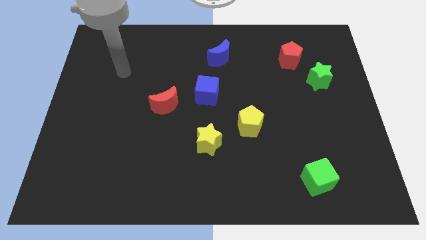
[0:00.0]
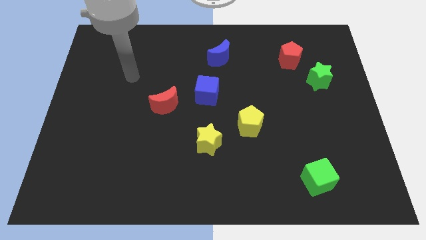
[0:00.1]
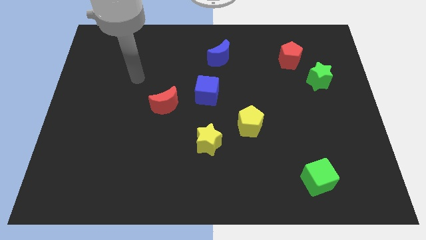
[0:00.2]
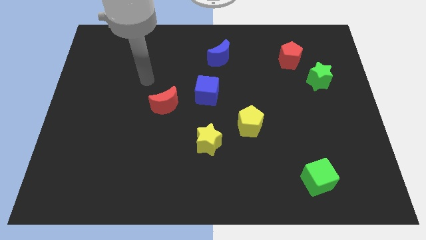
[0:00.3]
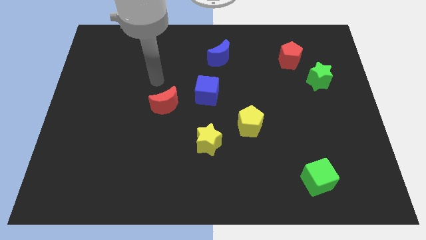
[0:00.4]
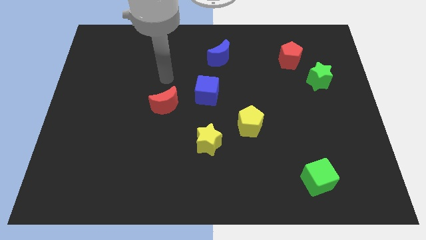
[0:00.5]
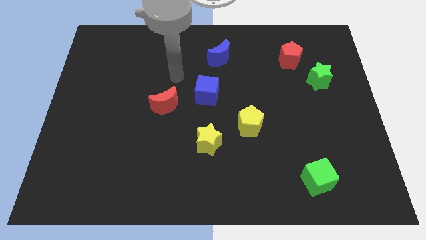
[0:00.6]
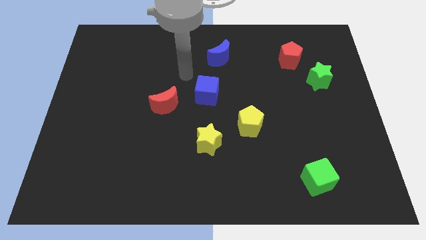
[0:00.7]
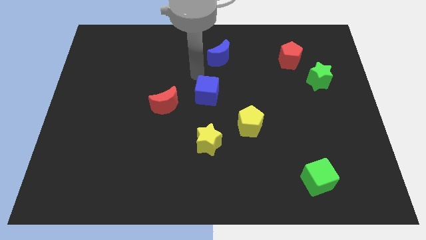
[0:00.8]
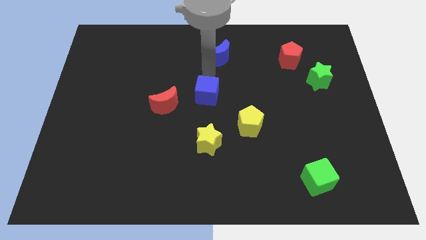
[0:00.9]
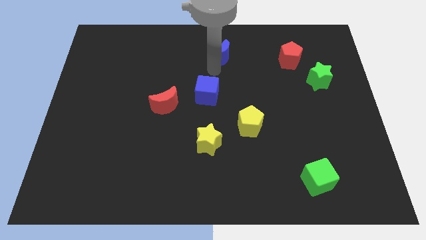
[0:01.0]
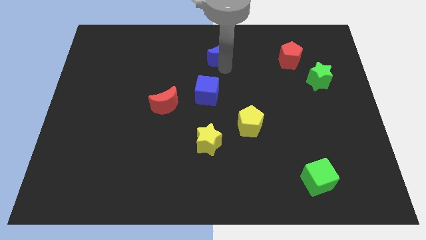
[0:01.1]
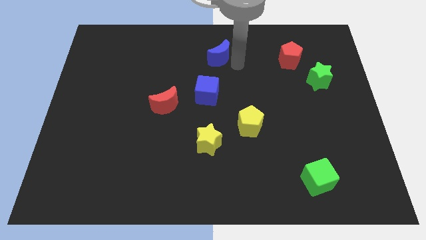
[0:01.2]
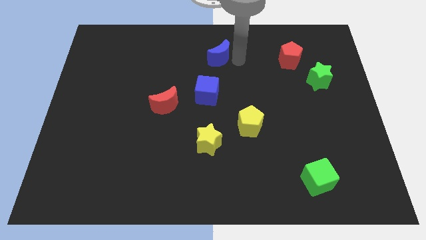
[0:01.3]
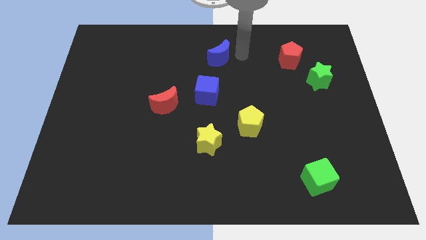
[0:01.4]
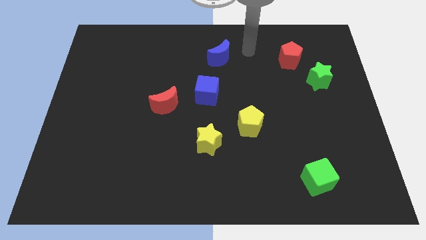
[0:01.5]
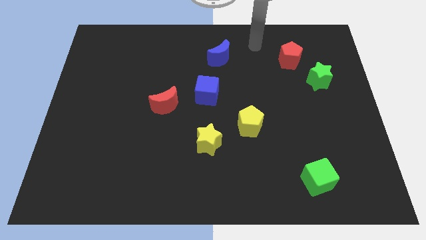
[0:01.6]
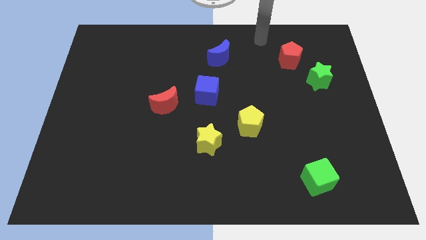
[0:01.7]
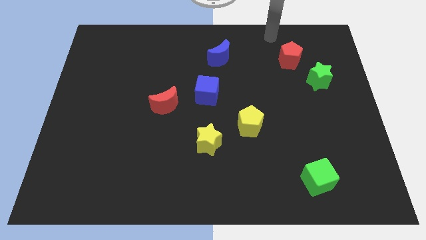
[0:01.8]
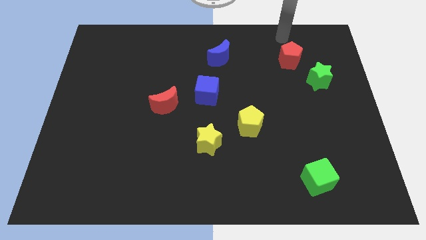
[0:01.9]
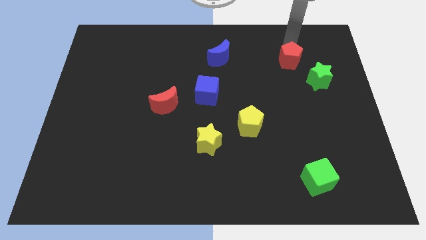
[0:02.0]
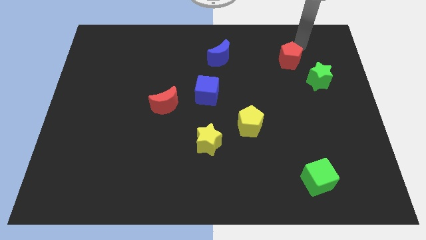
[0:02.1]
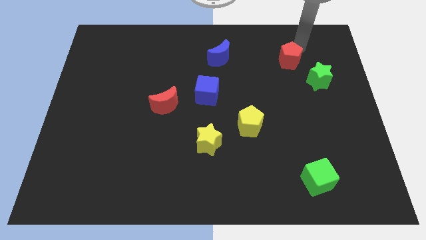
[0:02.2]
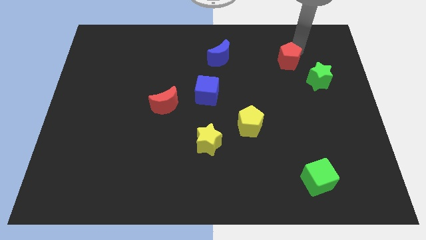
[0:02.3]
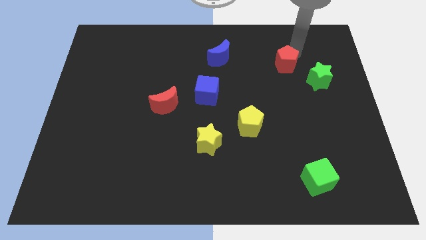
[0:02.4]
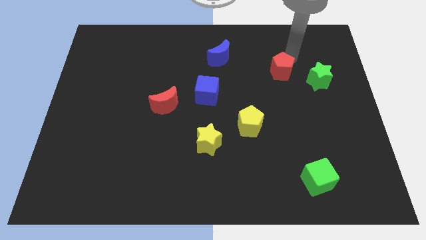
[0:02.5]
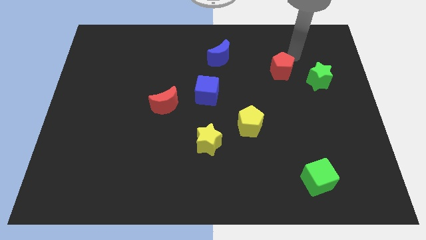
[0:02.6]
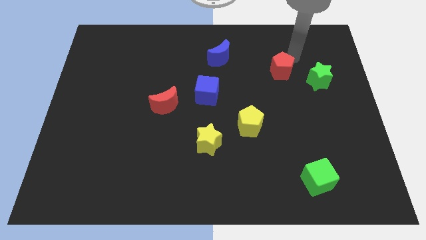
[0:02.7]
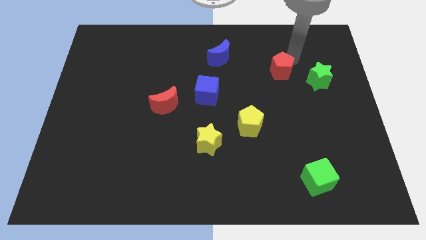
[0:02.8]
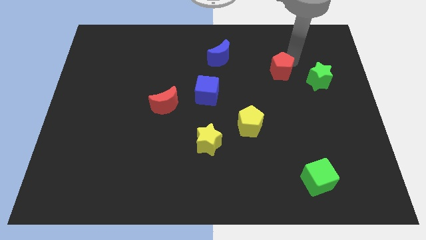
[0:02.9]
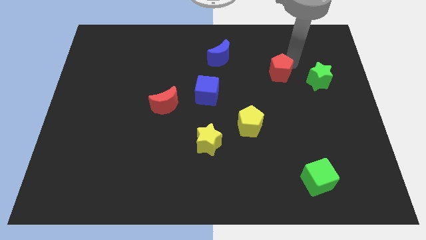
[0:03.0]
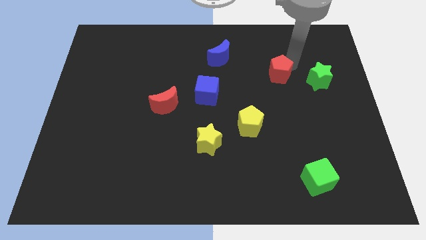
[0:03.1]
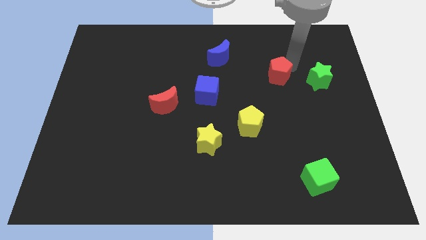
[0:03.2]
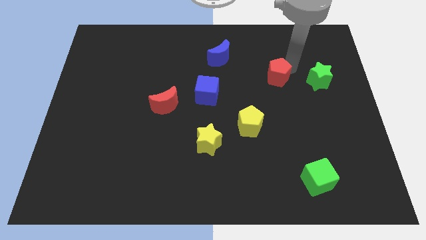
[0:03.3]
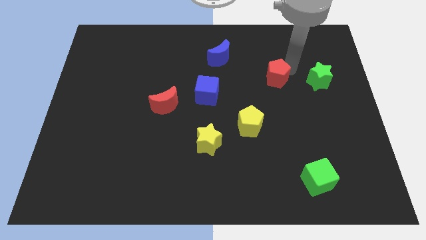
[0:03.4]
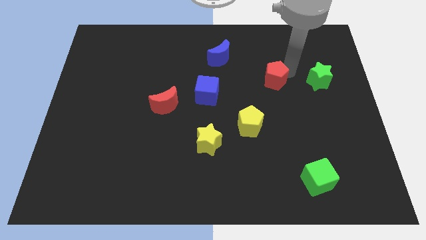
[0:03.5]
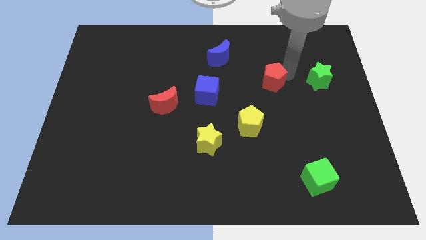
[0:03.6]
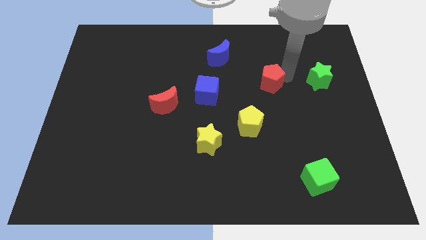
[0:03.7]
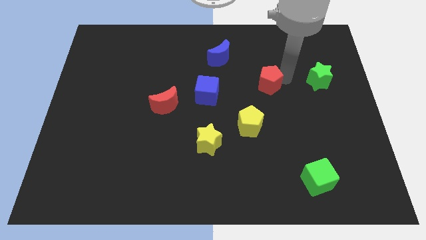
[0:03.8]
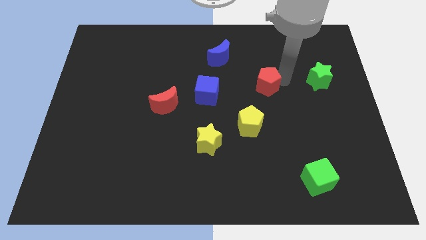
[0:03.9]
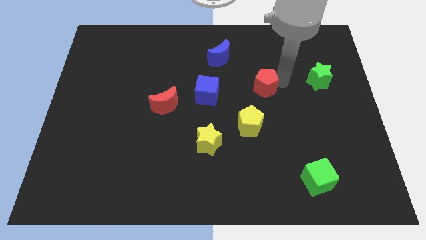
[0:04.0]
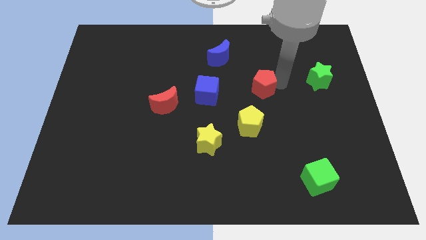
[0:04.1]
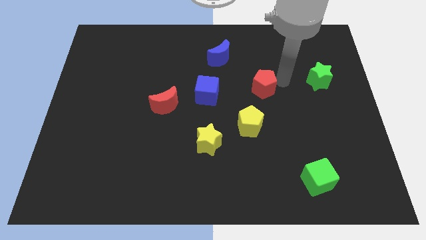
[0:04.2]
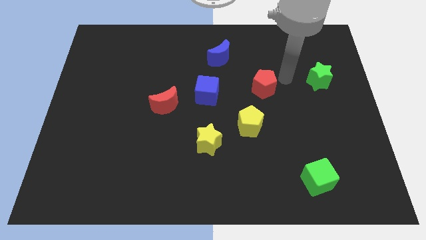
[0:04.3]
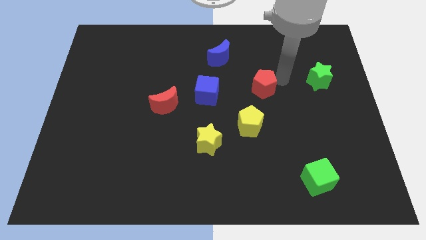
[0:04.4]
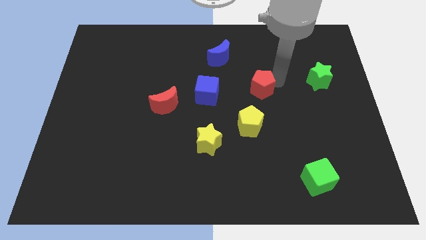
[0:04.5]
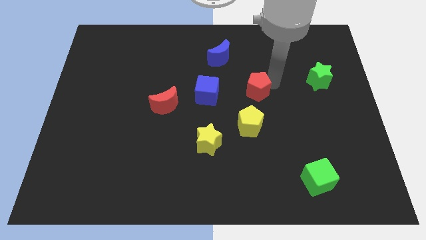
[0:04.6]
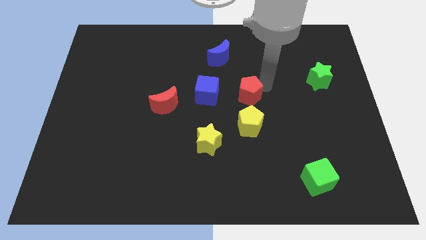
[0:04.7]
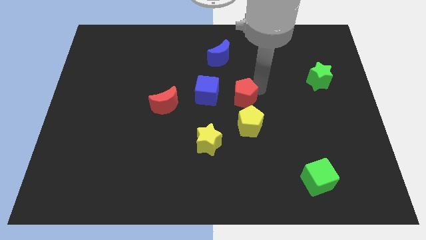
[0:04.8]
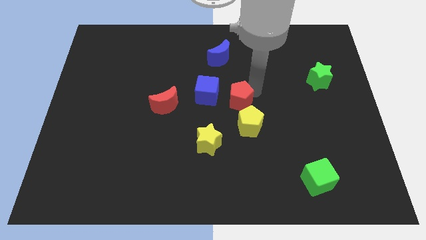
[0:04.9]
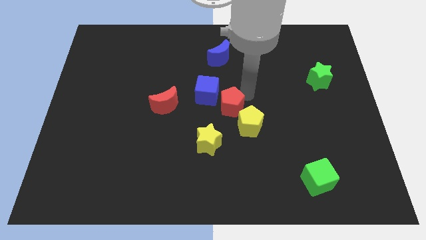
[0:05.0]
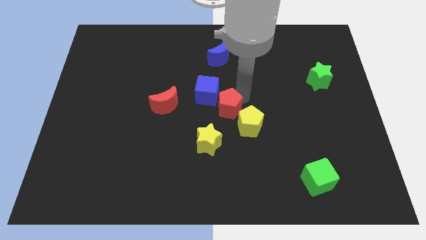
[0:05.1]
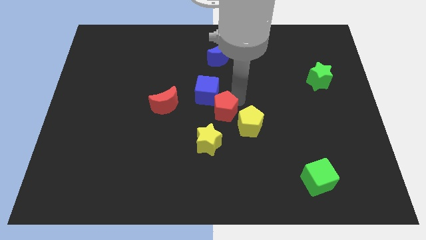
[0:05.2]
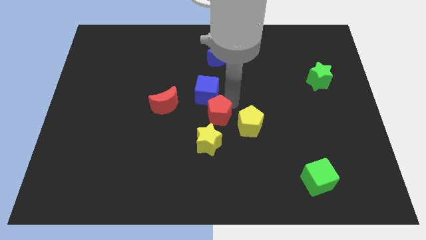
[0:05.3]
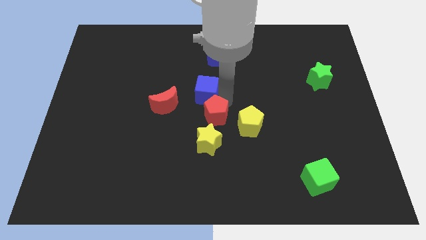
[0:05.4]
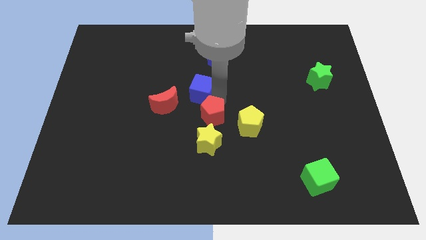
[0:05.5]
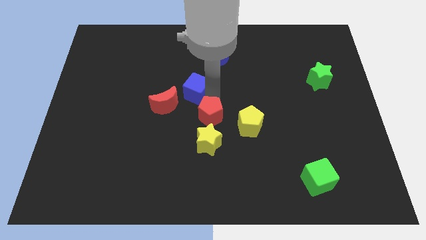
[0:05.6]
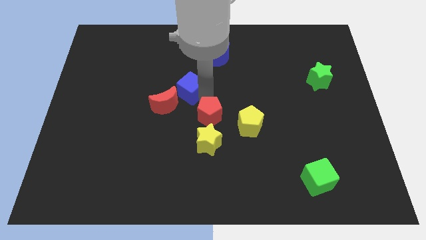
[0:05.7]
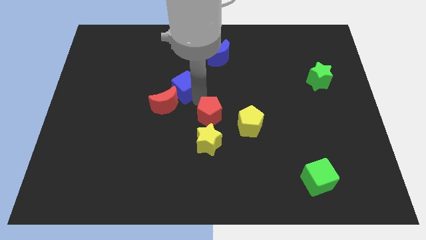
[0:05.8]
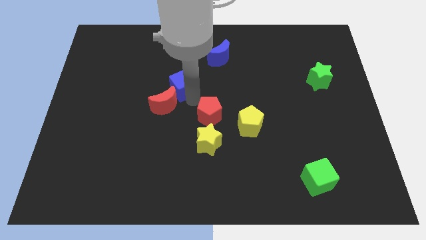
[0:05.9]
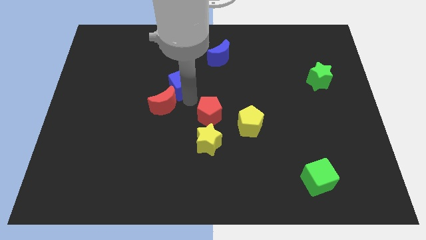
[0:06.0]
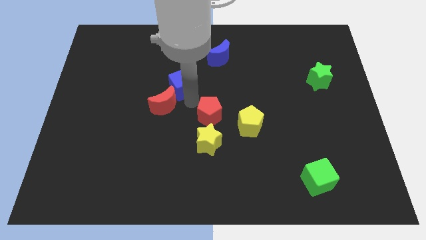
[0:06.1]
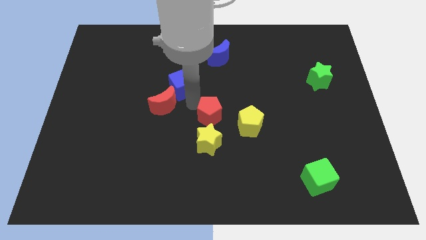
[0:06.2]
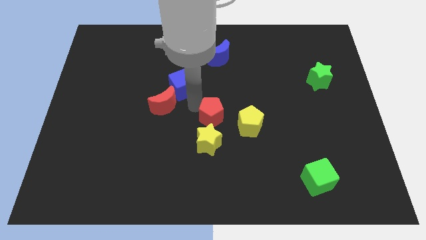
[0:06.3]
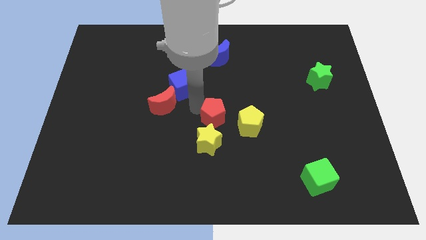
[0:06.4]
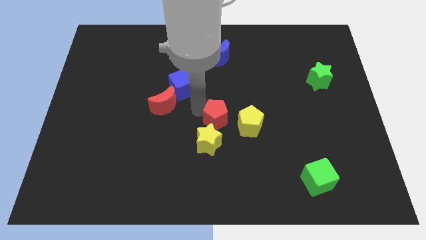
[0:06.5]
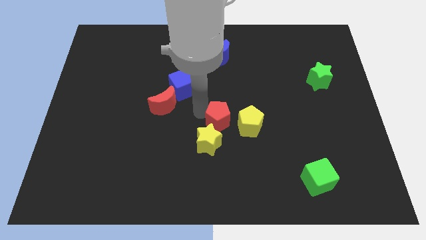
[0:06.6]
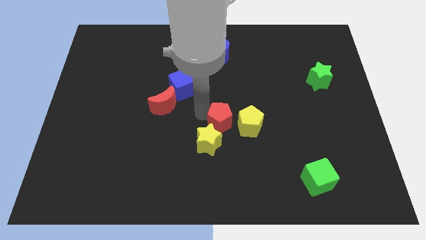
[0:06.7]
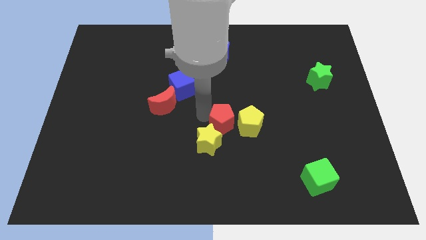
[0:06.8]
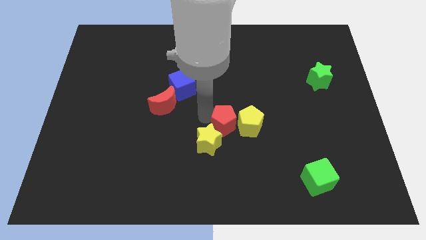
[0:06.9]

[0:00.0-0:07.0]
slide the red pentagon to the bottom left side of the yellow pentagon

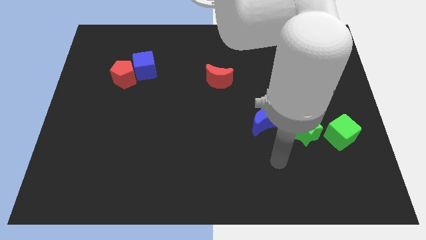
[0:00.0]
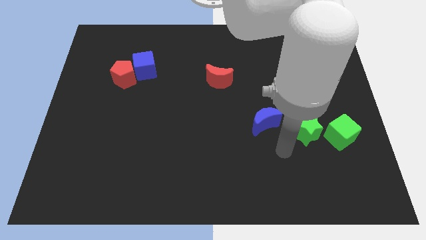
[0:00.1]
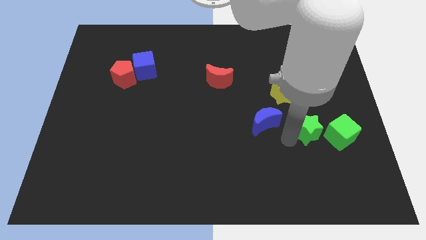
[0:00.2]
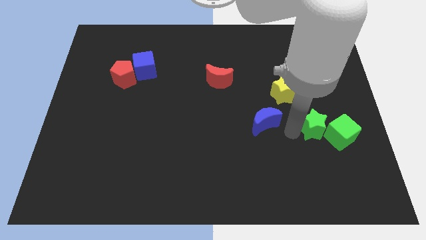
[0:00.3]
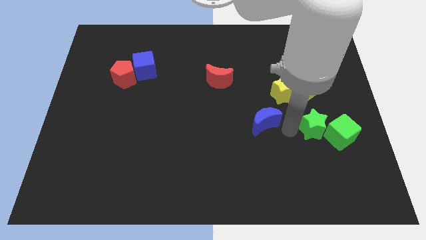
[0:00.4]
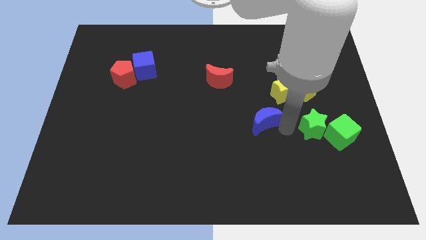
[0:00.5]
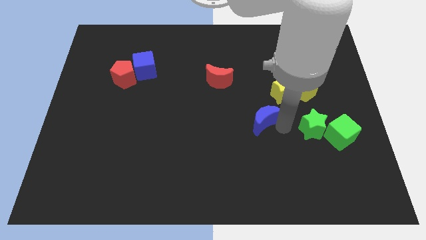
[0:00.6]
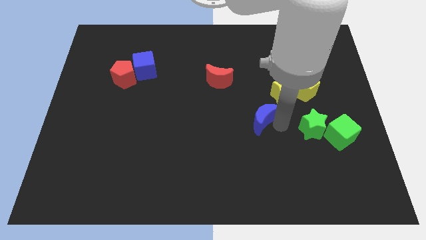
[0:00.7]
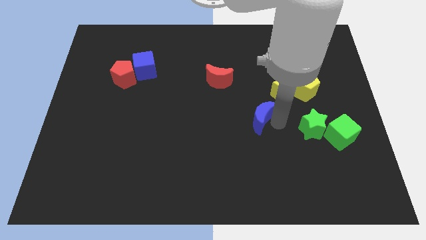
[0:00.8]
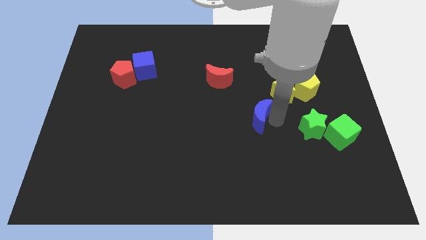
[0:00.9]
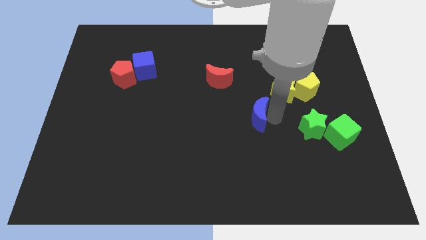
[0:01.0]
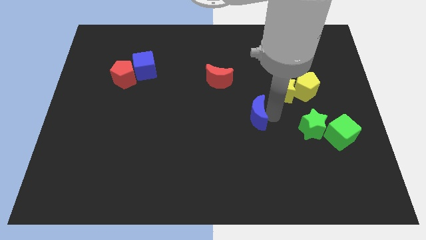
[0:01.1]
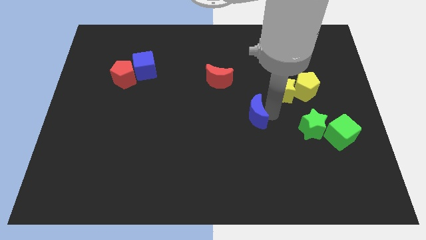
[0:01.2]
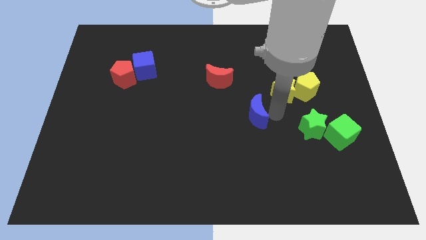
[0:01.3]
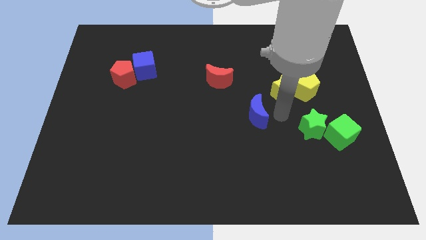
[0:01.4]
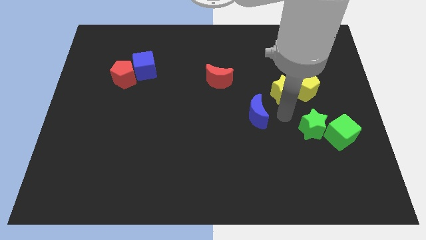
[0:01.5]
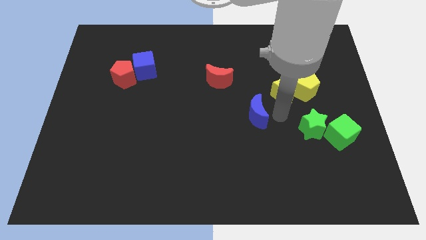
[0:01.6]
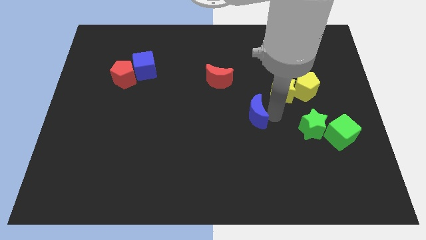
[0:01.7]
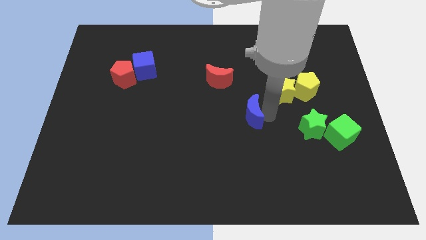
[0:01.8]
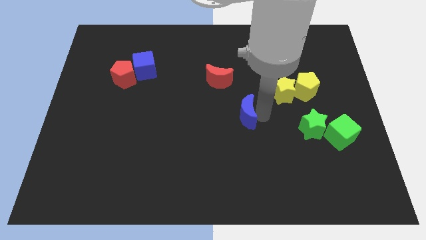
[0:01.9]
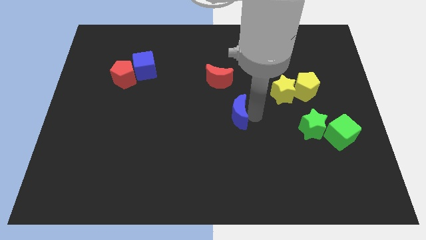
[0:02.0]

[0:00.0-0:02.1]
push the blue moon below the red moon
